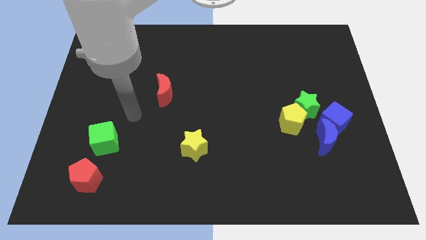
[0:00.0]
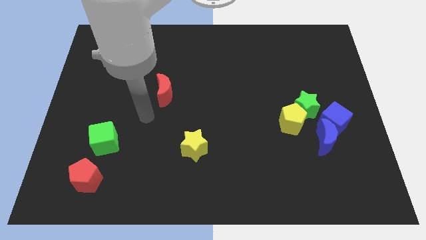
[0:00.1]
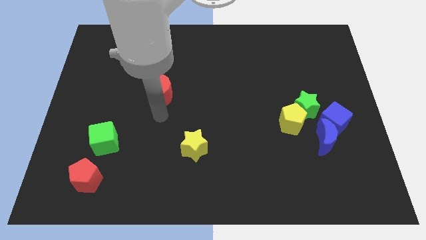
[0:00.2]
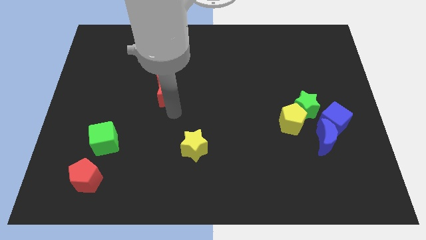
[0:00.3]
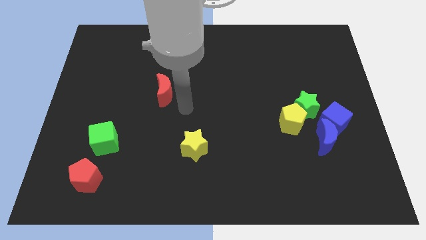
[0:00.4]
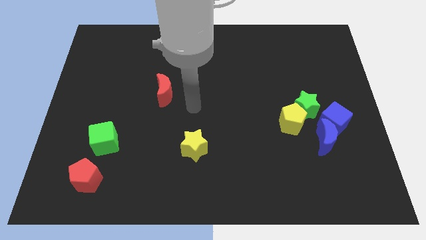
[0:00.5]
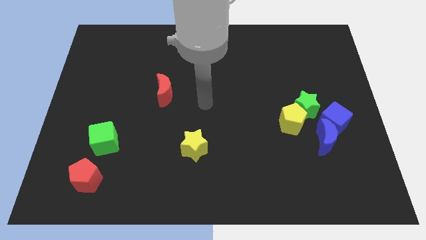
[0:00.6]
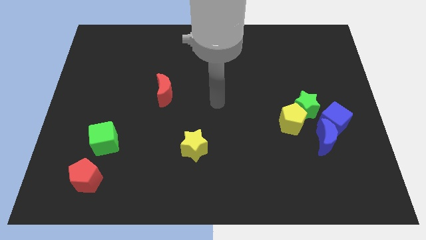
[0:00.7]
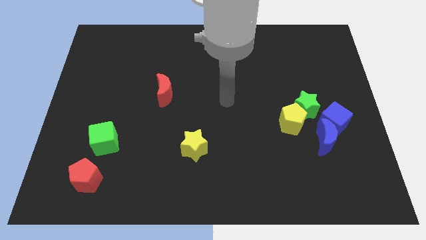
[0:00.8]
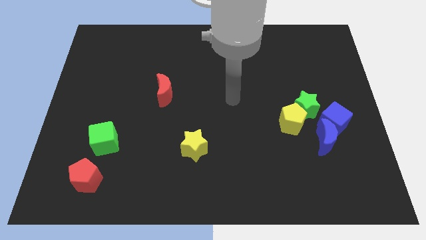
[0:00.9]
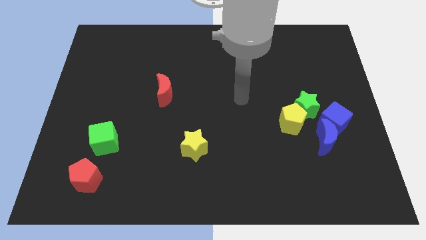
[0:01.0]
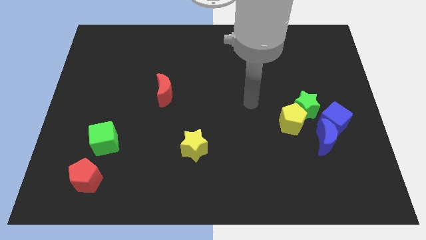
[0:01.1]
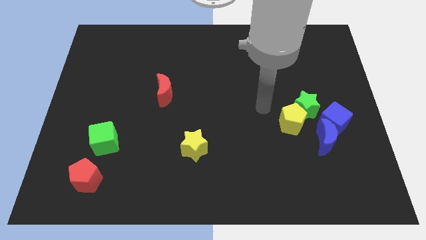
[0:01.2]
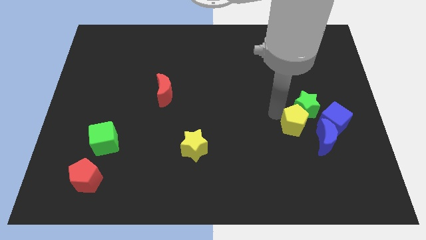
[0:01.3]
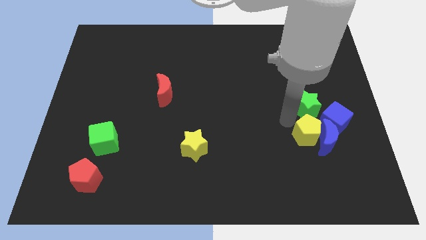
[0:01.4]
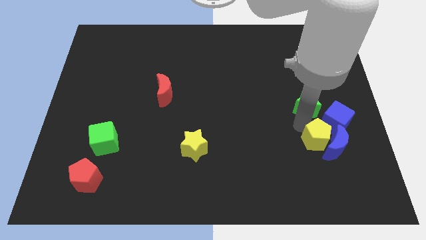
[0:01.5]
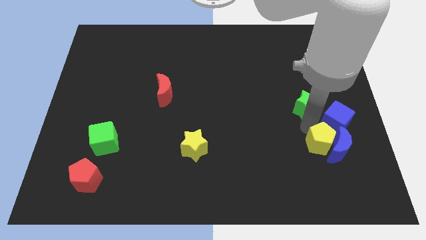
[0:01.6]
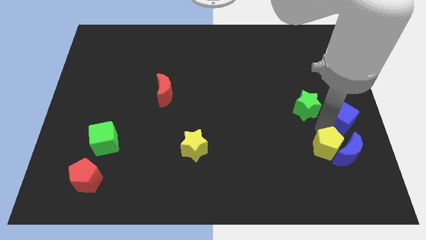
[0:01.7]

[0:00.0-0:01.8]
separate the green star from the yellow pentagon, blue cube, and blue moon

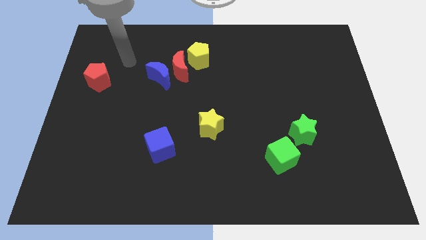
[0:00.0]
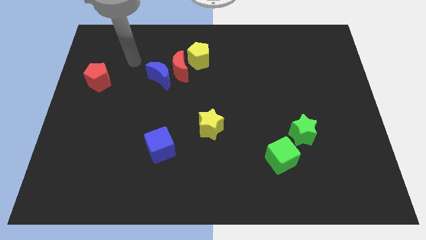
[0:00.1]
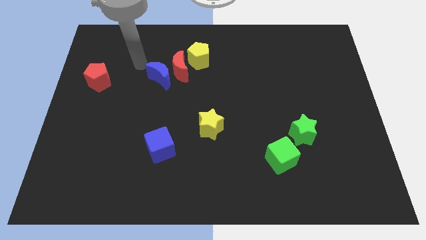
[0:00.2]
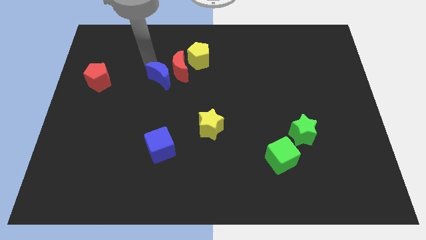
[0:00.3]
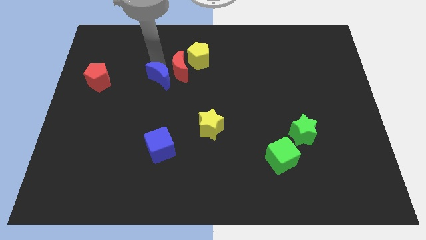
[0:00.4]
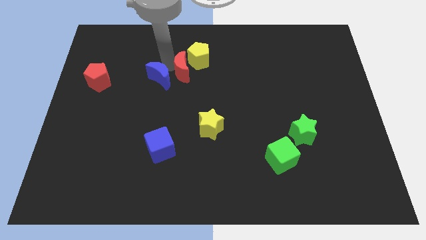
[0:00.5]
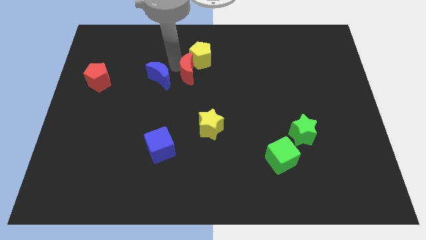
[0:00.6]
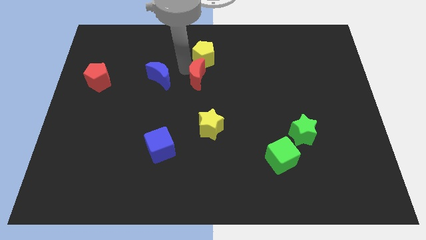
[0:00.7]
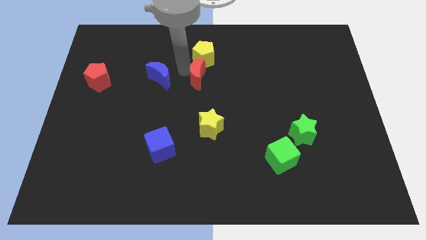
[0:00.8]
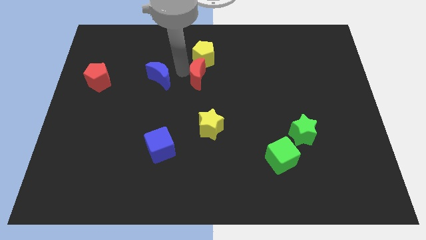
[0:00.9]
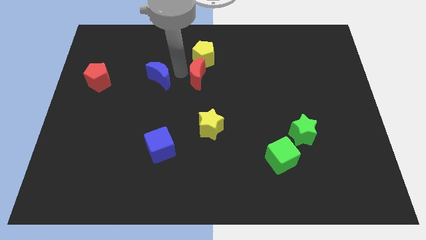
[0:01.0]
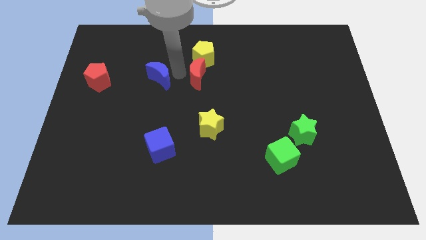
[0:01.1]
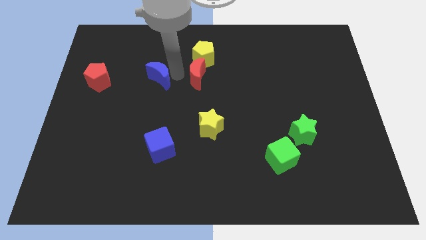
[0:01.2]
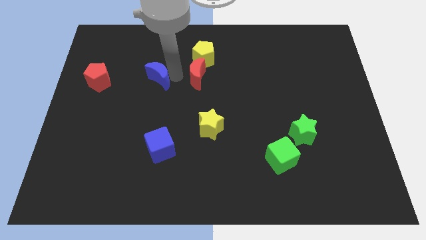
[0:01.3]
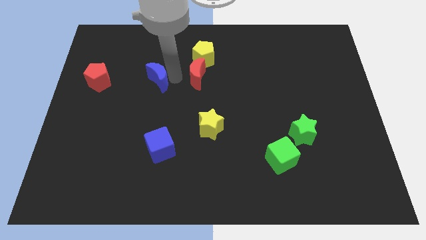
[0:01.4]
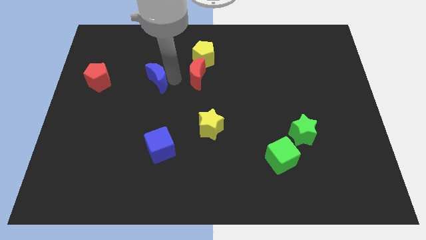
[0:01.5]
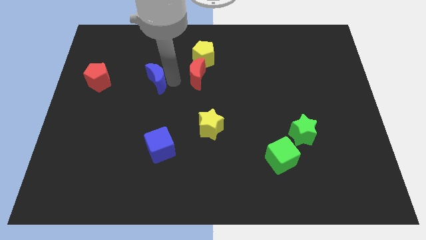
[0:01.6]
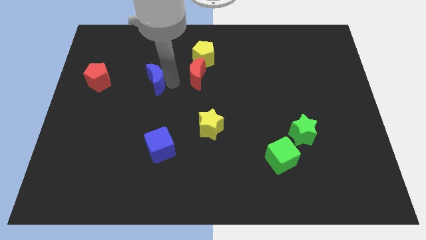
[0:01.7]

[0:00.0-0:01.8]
pull the blue moon apart from the red moon

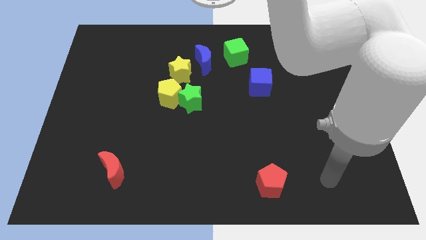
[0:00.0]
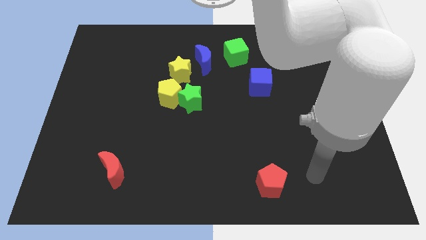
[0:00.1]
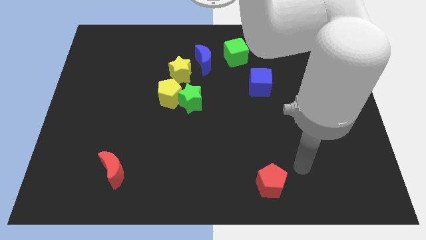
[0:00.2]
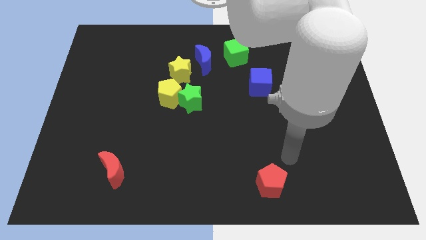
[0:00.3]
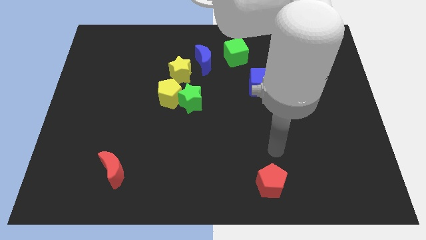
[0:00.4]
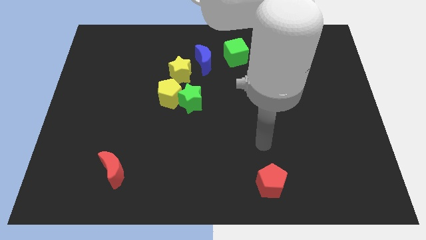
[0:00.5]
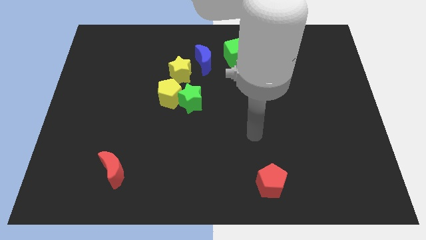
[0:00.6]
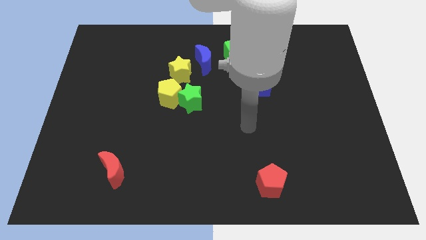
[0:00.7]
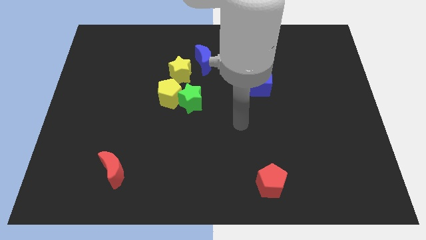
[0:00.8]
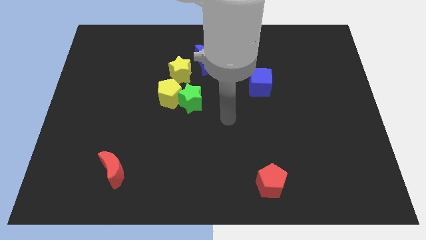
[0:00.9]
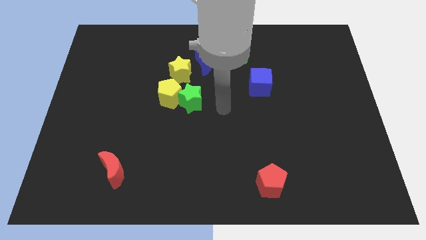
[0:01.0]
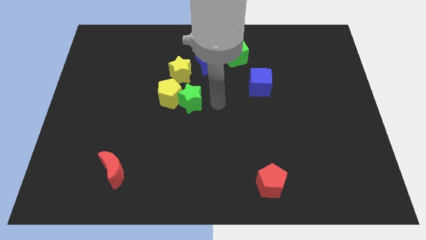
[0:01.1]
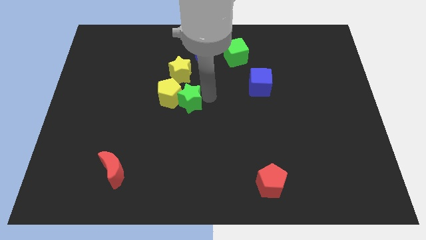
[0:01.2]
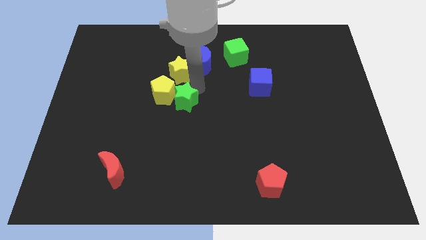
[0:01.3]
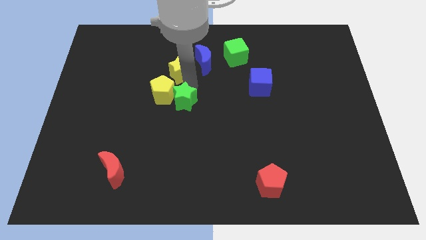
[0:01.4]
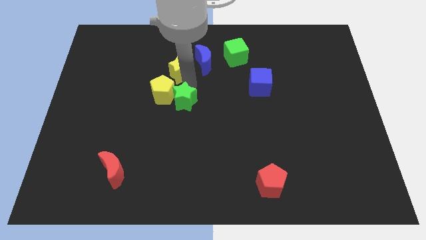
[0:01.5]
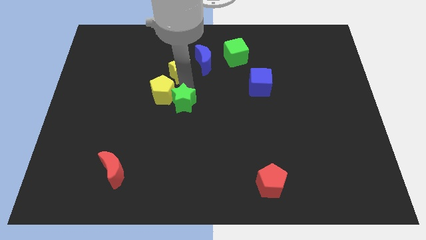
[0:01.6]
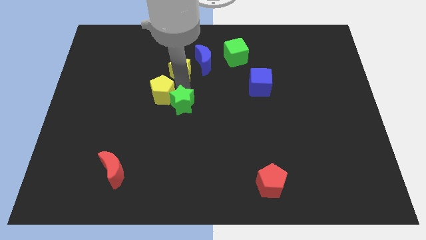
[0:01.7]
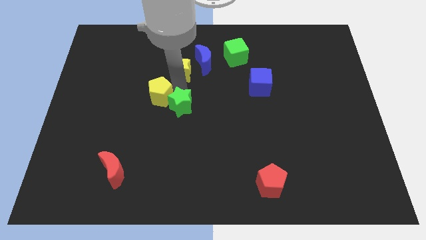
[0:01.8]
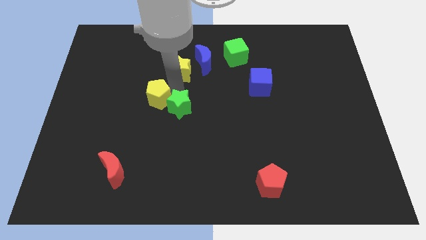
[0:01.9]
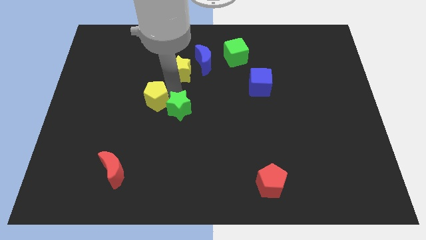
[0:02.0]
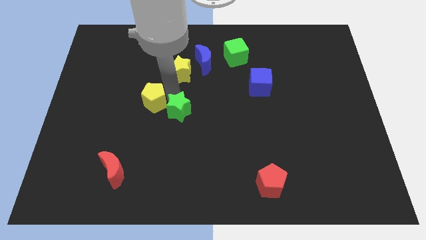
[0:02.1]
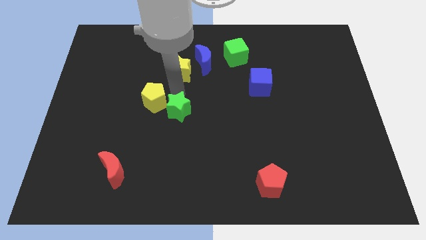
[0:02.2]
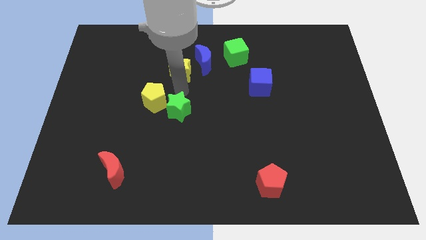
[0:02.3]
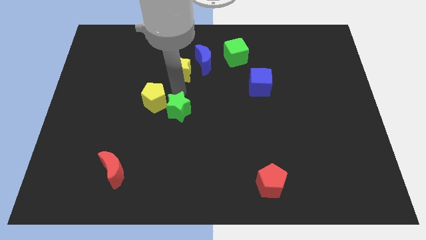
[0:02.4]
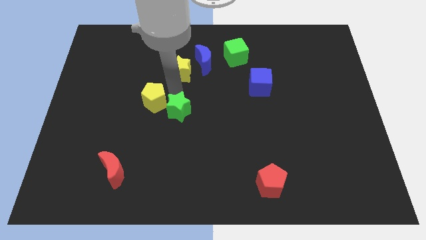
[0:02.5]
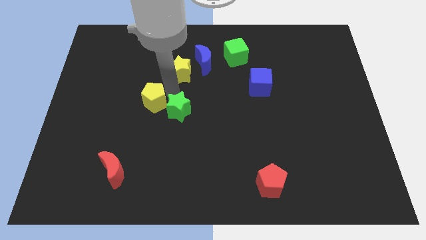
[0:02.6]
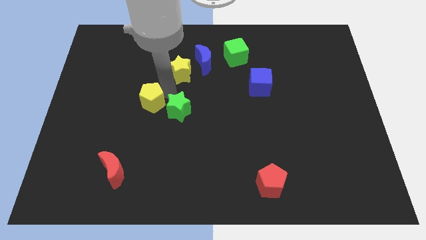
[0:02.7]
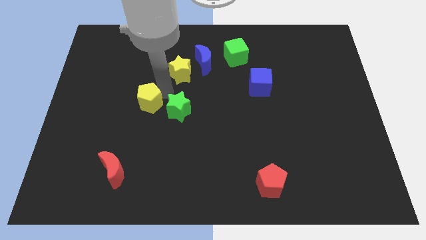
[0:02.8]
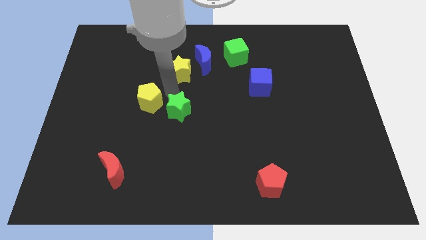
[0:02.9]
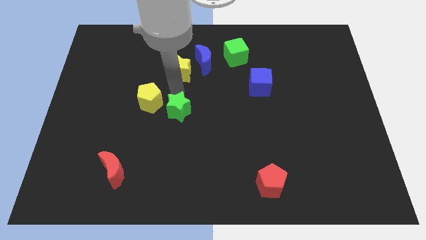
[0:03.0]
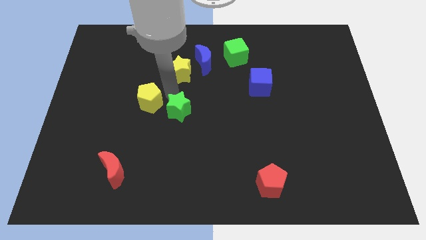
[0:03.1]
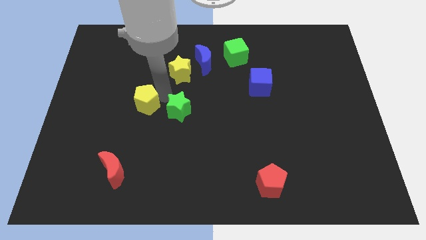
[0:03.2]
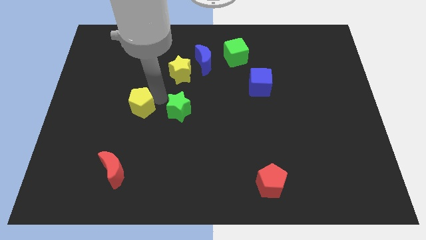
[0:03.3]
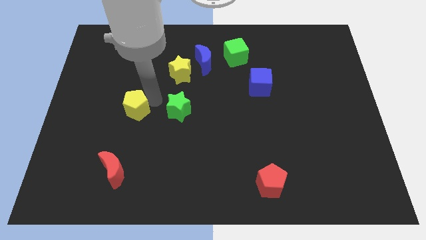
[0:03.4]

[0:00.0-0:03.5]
move the yellow pentagon away from the green star and yellow star

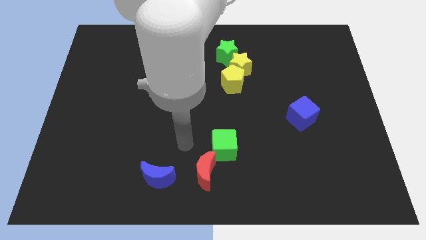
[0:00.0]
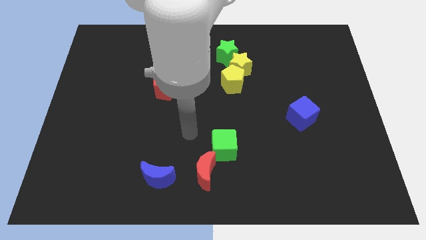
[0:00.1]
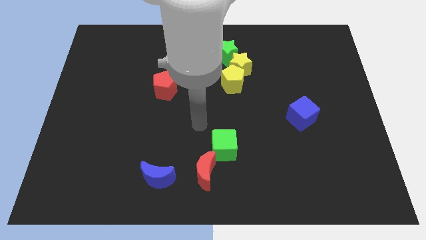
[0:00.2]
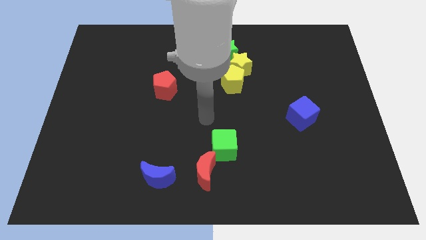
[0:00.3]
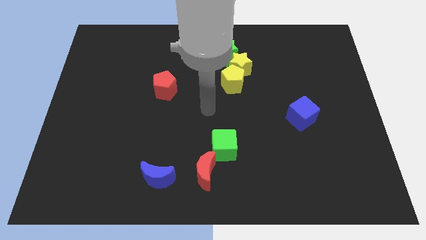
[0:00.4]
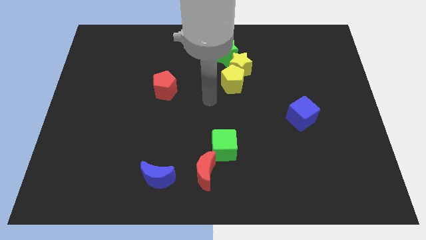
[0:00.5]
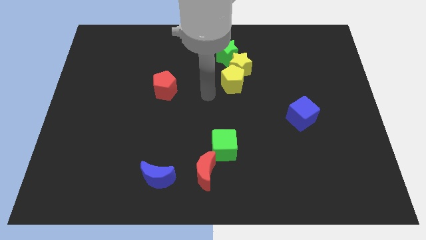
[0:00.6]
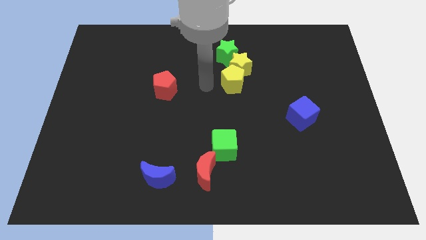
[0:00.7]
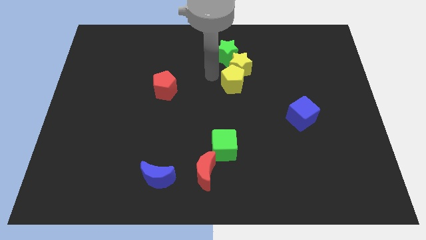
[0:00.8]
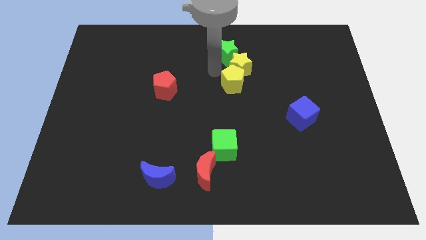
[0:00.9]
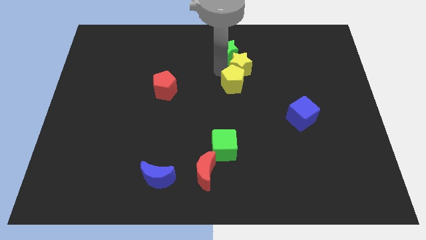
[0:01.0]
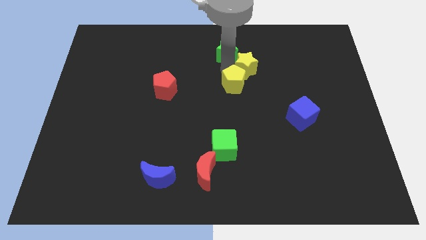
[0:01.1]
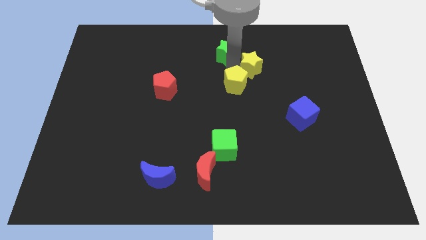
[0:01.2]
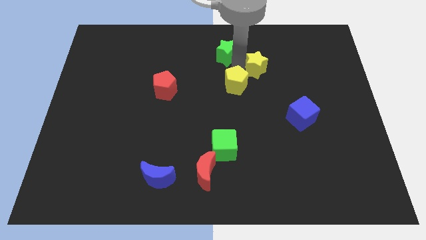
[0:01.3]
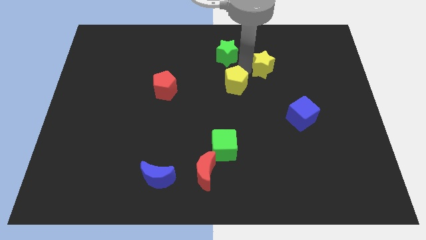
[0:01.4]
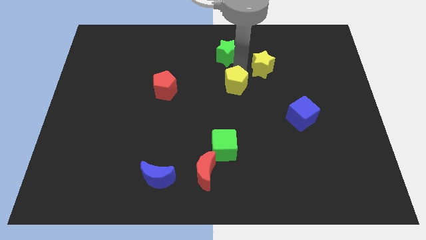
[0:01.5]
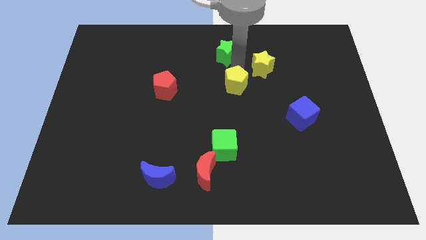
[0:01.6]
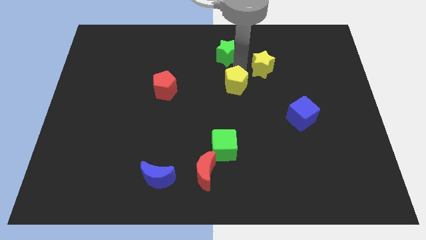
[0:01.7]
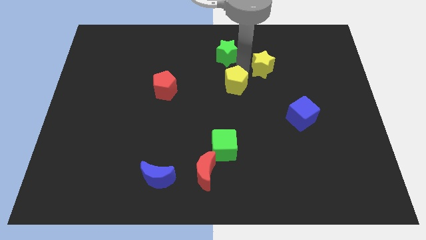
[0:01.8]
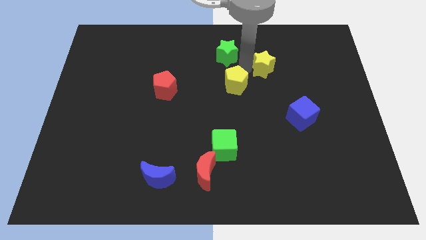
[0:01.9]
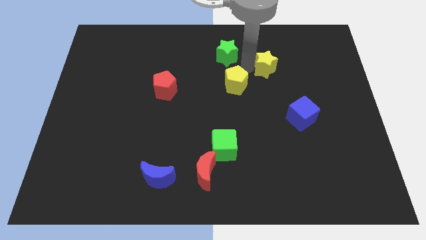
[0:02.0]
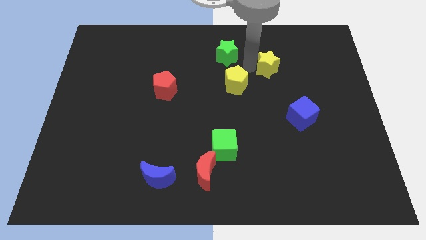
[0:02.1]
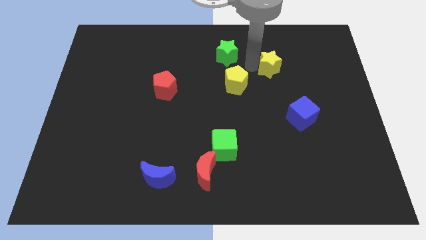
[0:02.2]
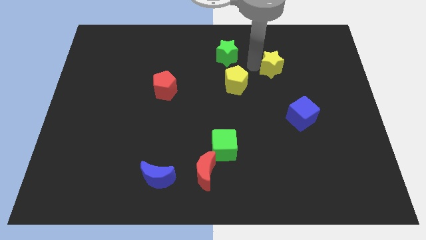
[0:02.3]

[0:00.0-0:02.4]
pull the yellow star apart from the yellow pentagon and green star
